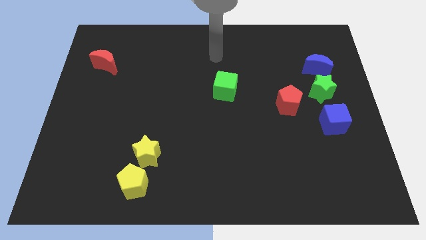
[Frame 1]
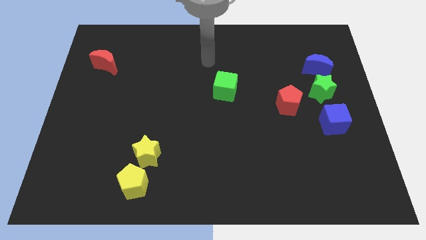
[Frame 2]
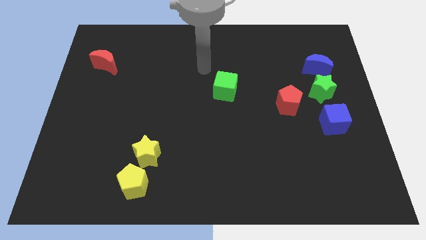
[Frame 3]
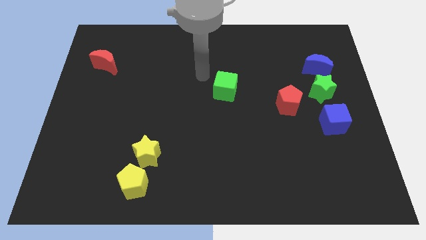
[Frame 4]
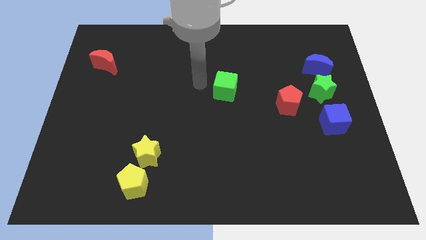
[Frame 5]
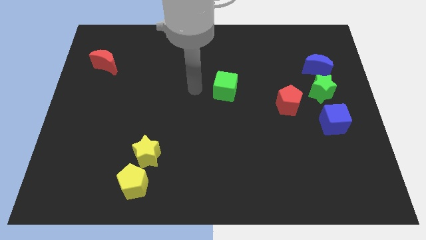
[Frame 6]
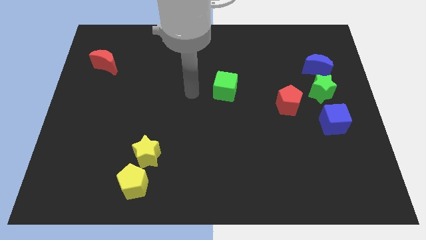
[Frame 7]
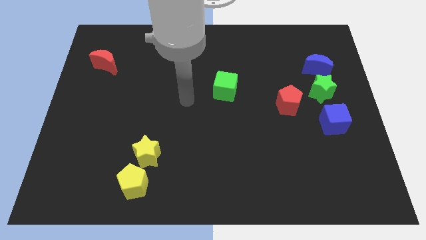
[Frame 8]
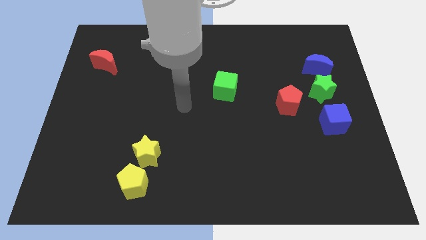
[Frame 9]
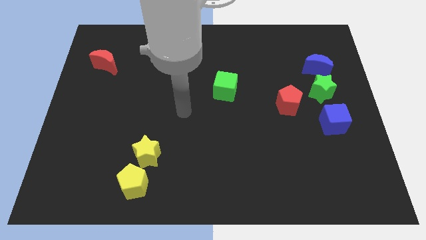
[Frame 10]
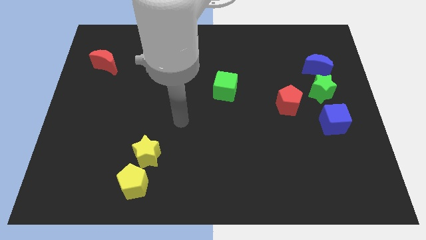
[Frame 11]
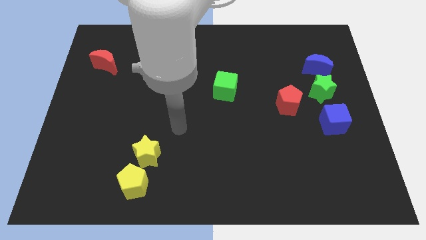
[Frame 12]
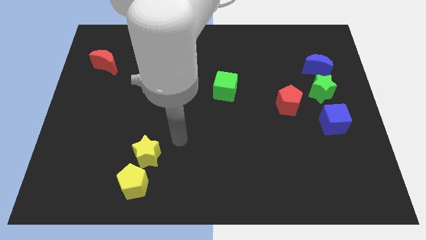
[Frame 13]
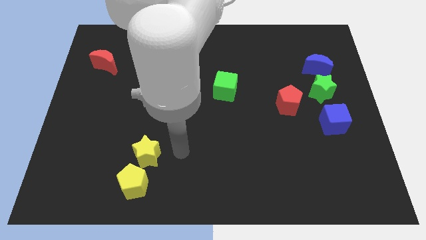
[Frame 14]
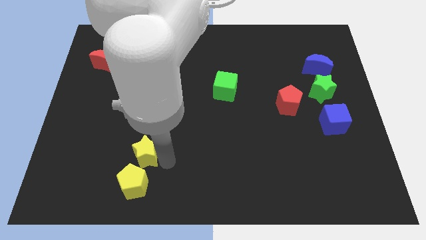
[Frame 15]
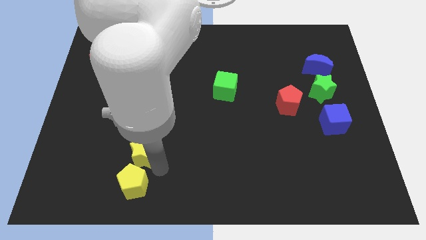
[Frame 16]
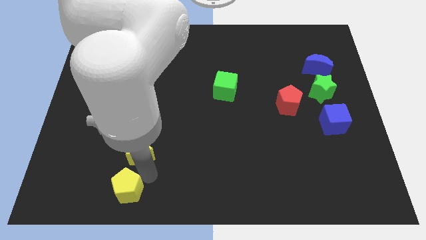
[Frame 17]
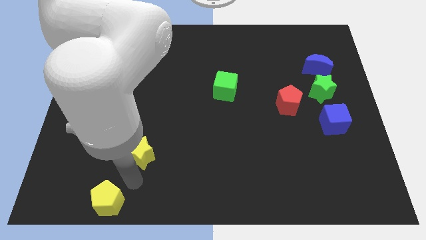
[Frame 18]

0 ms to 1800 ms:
separate the yellow star from the yellow pentagon

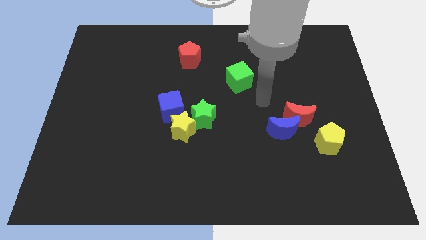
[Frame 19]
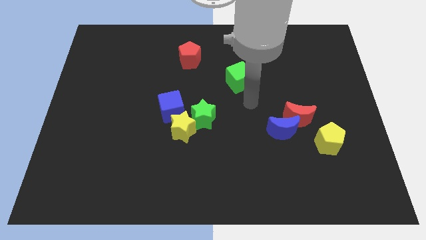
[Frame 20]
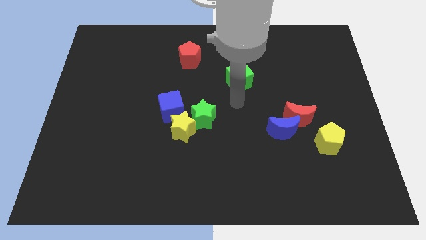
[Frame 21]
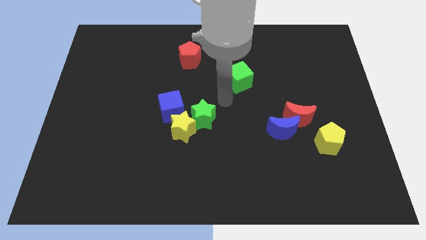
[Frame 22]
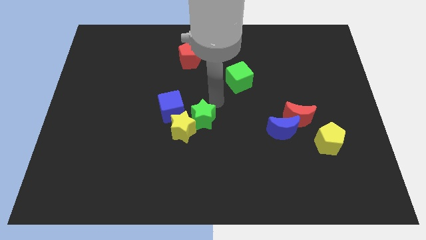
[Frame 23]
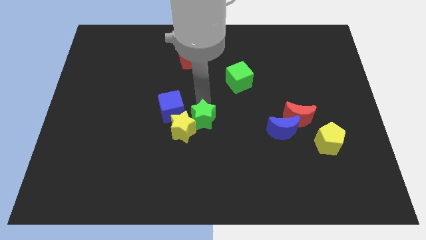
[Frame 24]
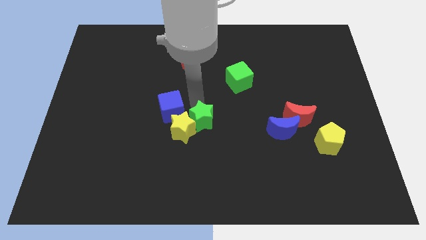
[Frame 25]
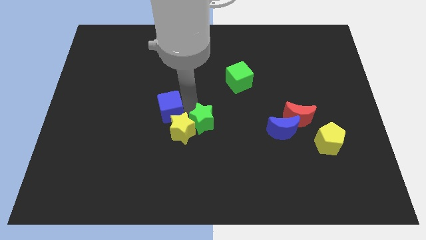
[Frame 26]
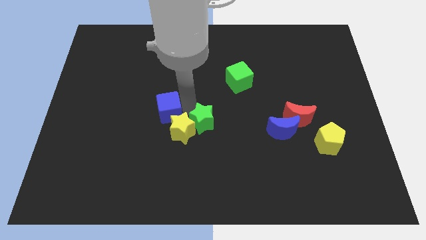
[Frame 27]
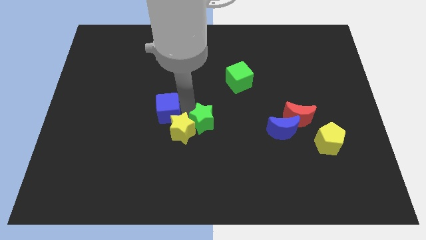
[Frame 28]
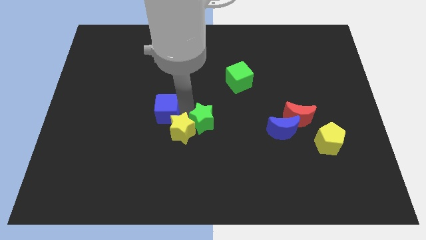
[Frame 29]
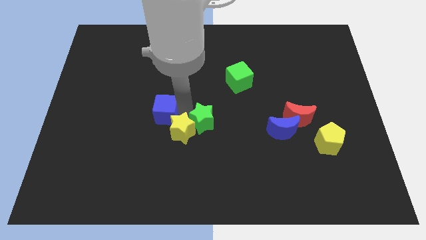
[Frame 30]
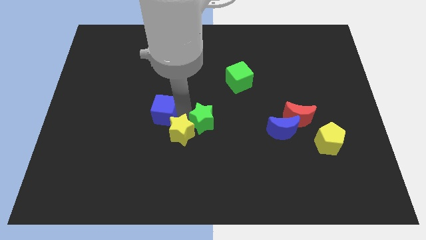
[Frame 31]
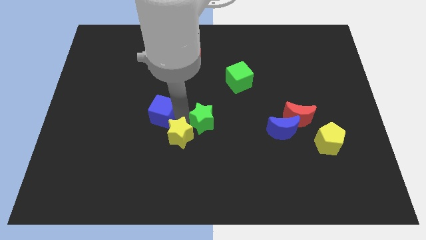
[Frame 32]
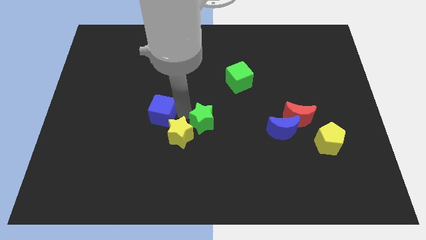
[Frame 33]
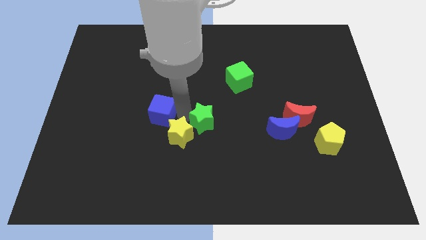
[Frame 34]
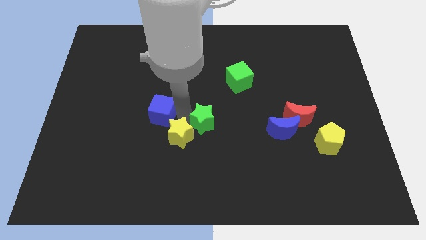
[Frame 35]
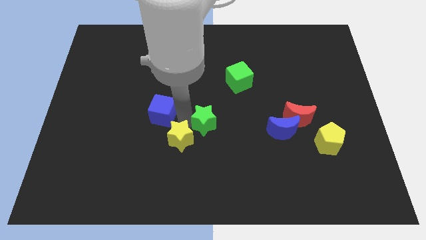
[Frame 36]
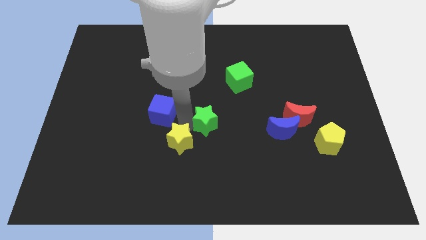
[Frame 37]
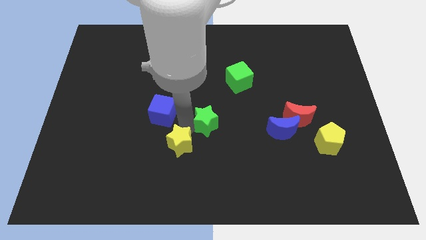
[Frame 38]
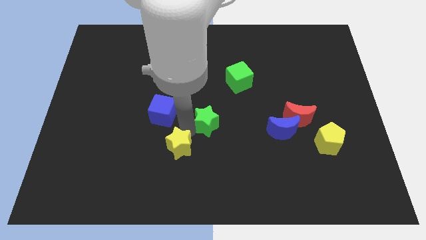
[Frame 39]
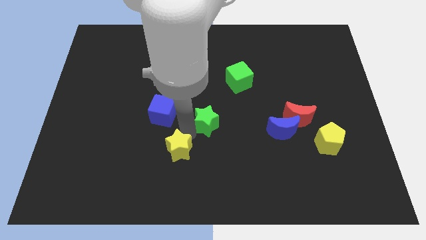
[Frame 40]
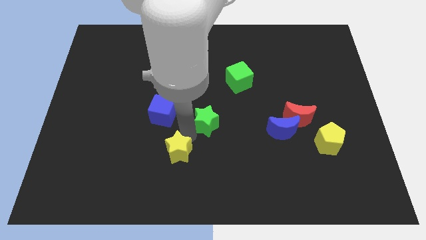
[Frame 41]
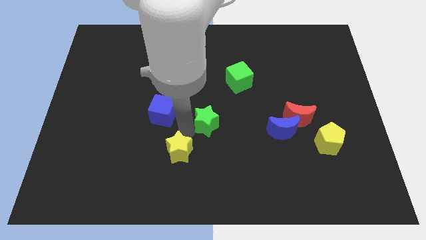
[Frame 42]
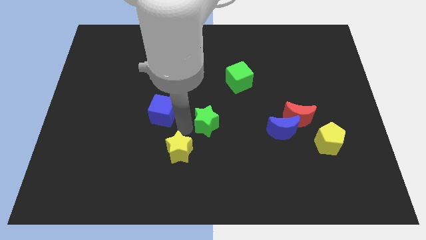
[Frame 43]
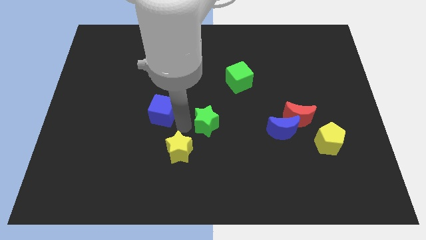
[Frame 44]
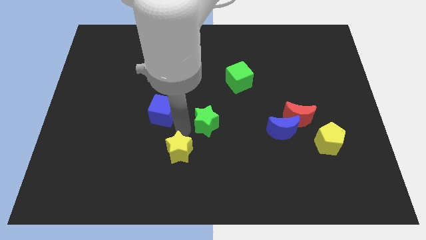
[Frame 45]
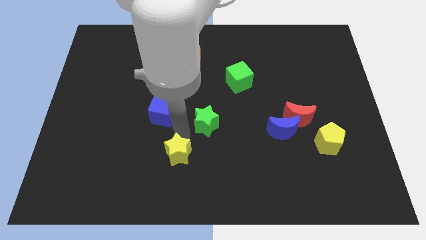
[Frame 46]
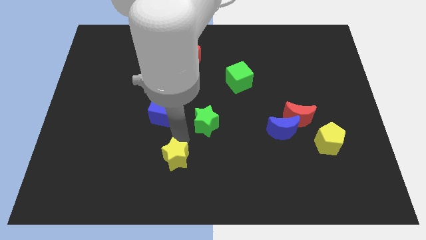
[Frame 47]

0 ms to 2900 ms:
move the yellow star away from the green star and blue cube

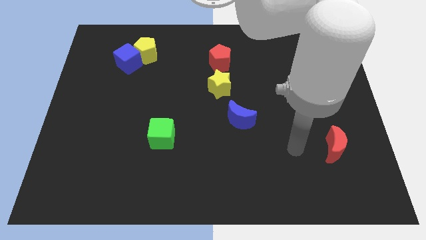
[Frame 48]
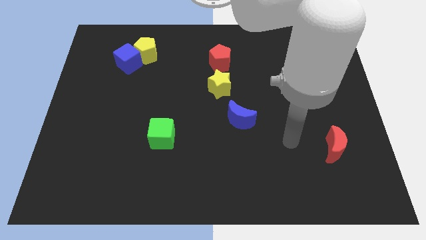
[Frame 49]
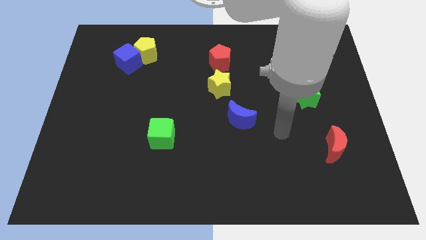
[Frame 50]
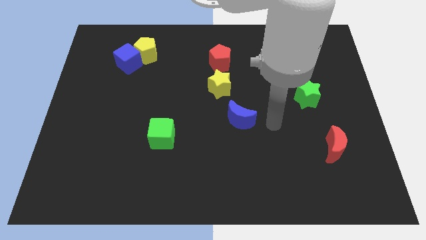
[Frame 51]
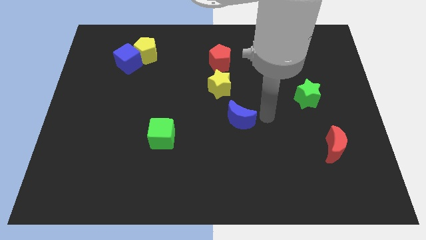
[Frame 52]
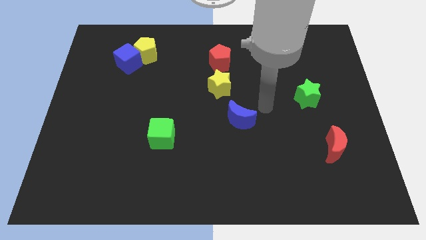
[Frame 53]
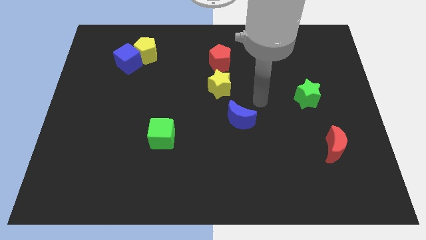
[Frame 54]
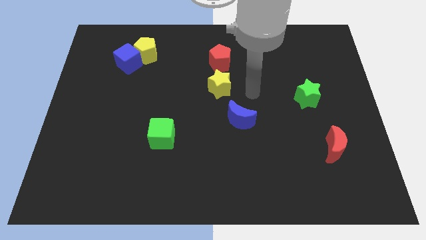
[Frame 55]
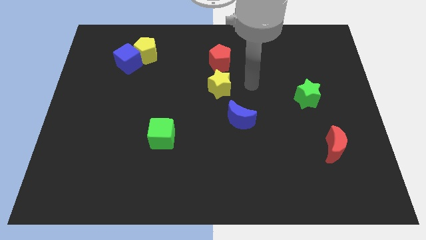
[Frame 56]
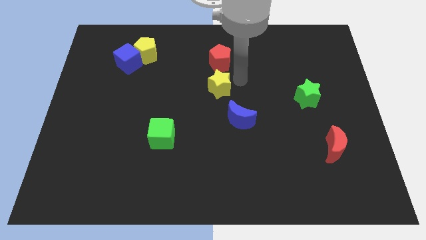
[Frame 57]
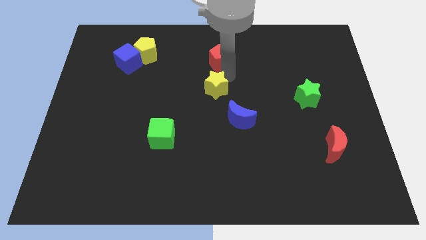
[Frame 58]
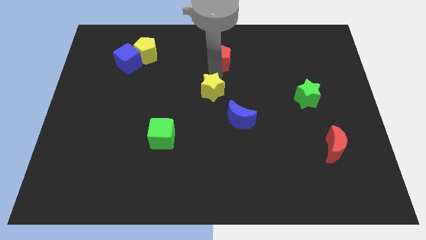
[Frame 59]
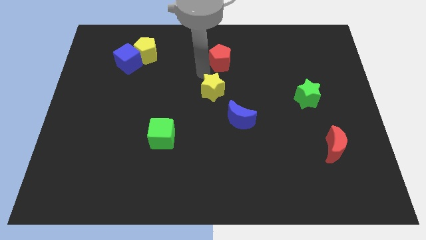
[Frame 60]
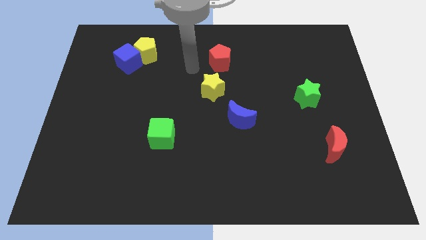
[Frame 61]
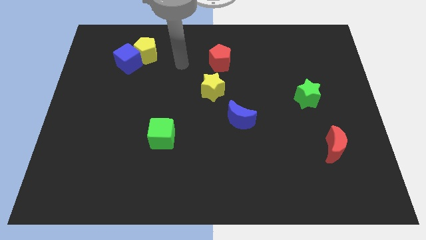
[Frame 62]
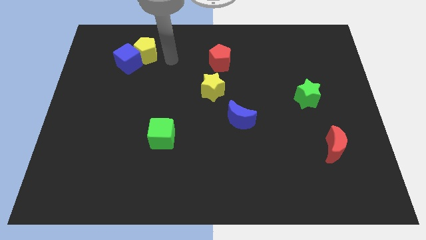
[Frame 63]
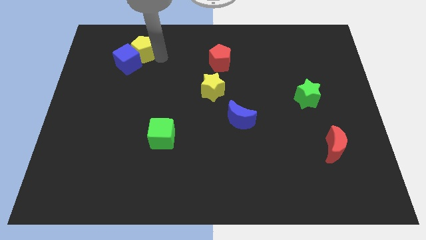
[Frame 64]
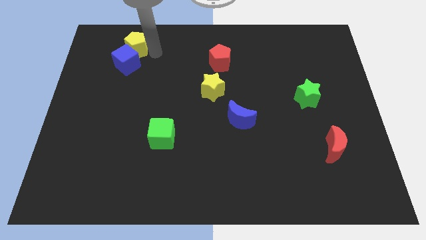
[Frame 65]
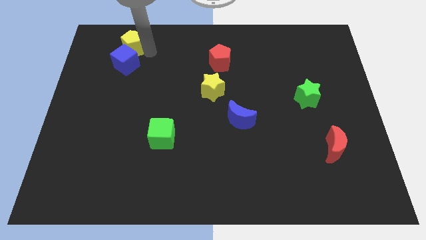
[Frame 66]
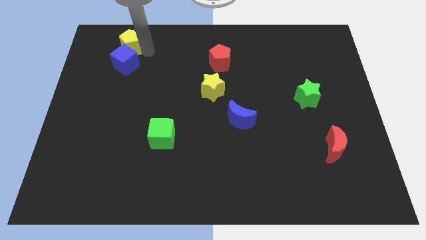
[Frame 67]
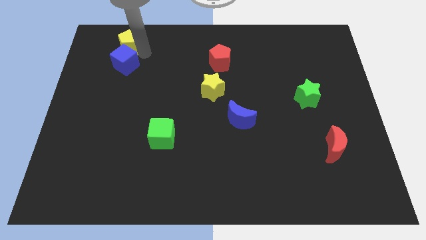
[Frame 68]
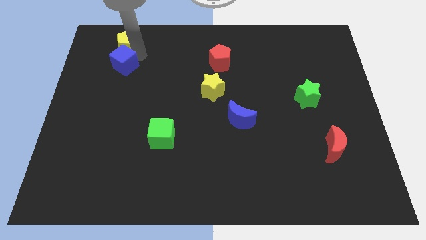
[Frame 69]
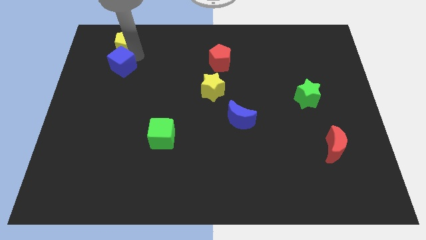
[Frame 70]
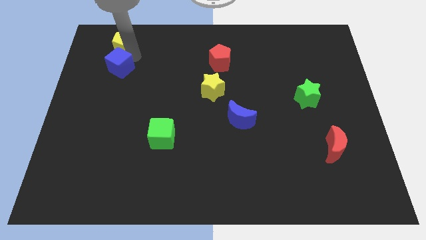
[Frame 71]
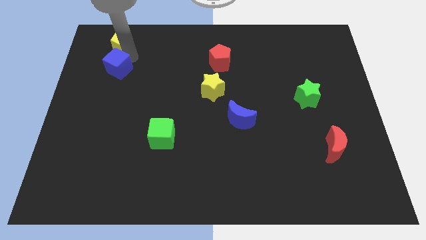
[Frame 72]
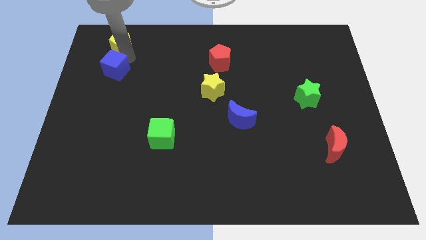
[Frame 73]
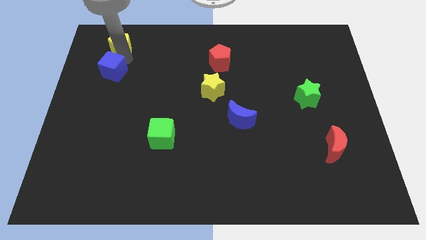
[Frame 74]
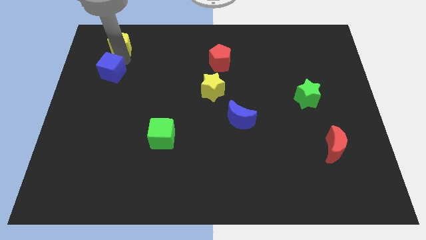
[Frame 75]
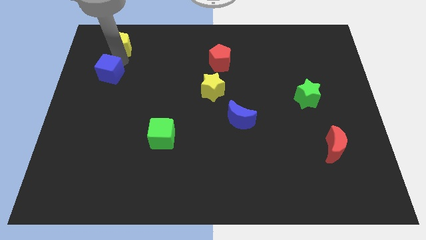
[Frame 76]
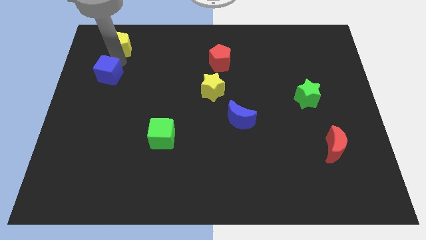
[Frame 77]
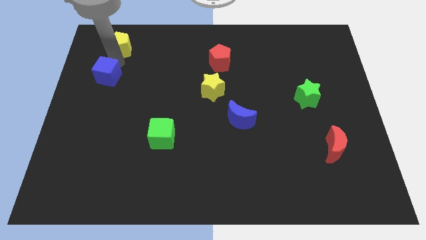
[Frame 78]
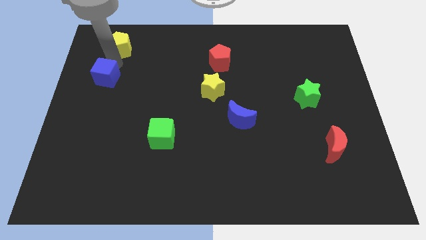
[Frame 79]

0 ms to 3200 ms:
separate the blue cube from the yellow pentagon

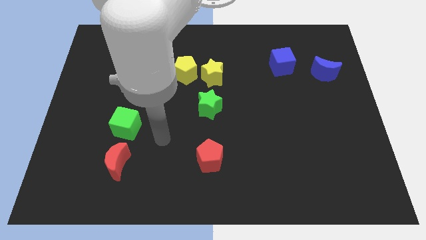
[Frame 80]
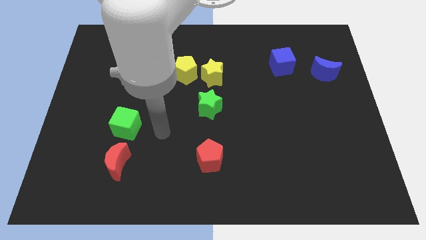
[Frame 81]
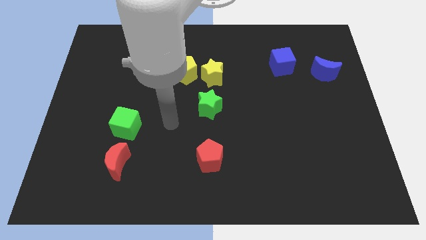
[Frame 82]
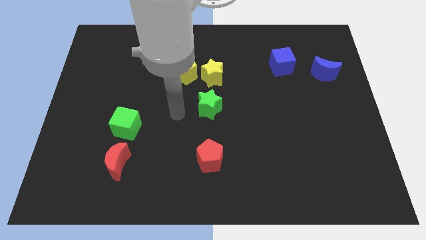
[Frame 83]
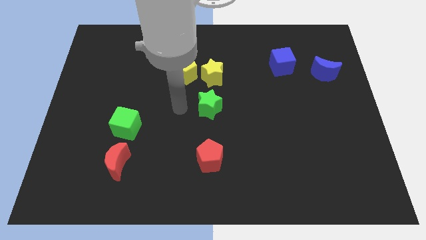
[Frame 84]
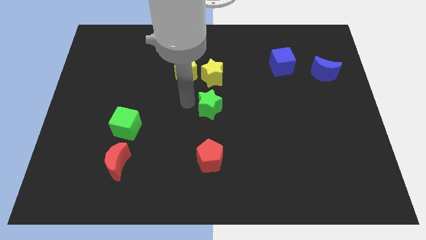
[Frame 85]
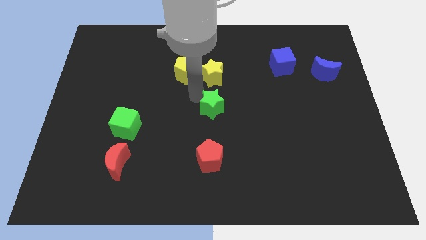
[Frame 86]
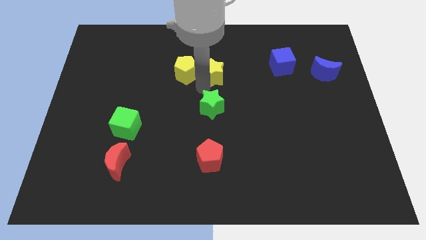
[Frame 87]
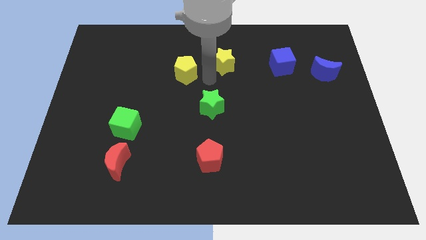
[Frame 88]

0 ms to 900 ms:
move the yellow pentagon away from the yellow star

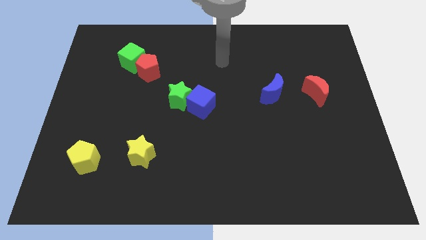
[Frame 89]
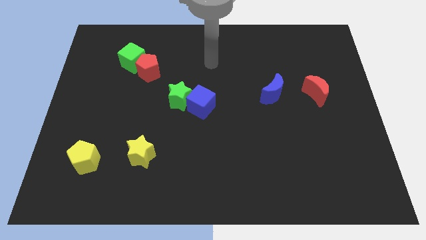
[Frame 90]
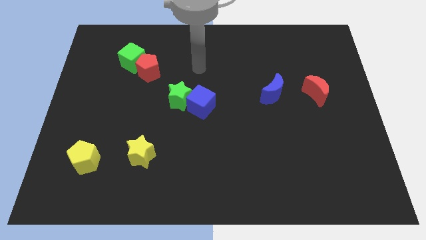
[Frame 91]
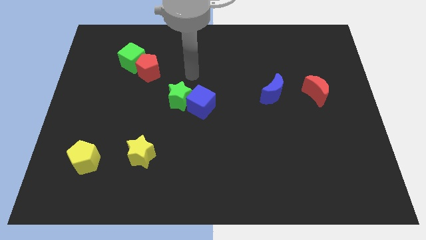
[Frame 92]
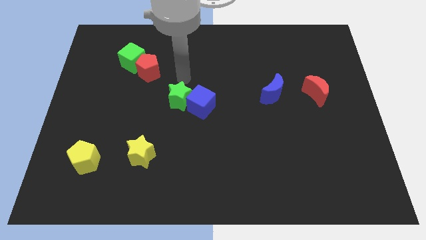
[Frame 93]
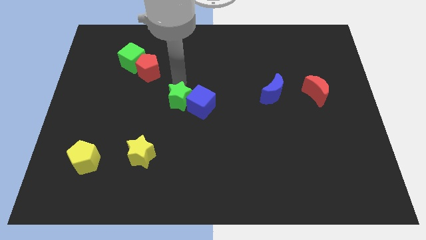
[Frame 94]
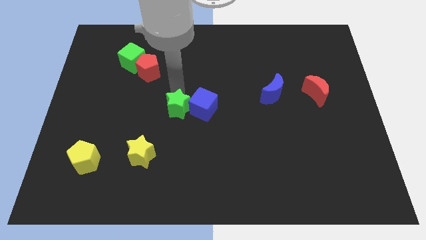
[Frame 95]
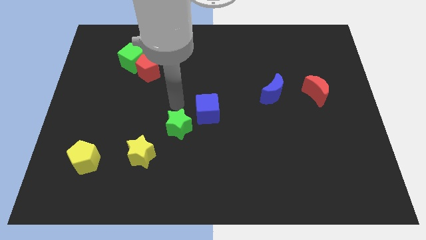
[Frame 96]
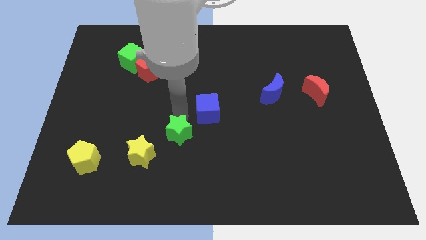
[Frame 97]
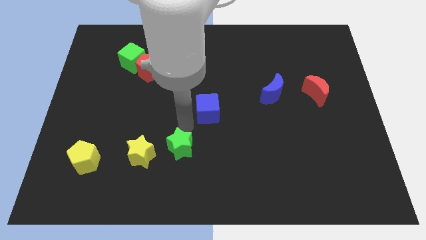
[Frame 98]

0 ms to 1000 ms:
pull the blue cube apart from the green star
